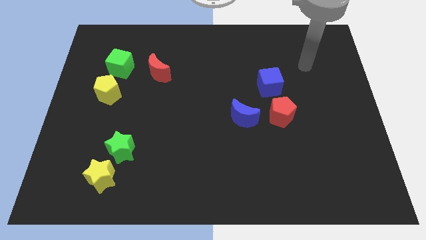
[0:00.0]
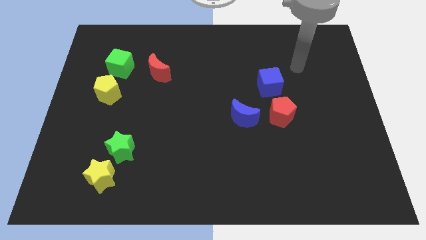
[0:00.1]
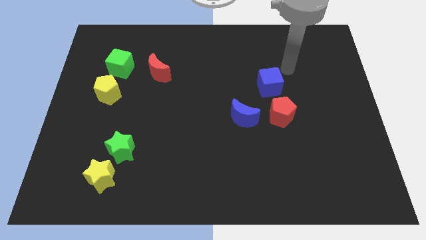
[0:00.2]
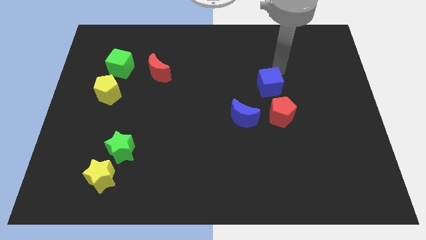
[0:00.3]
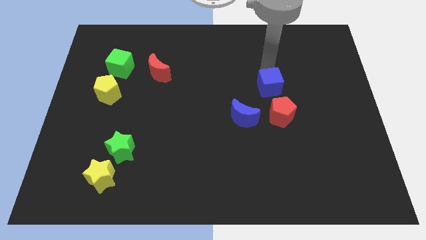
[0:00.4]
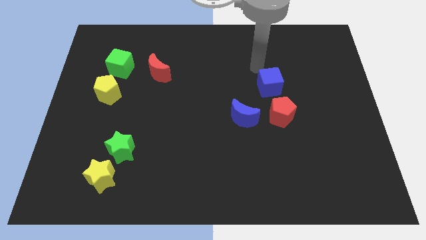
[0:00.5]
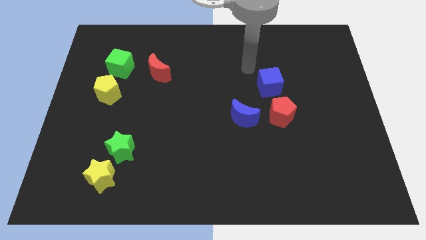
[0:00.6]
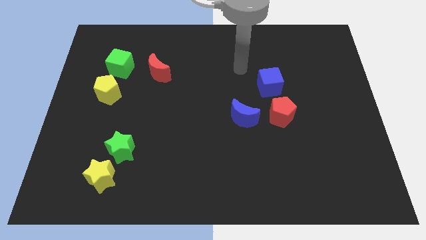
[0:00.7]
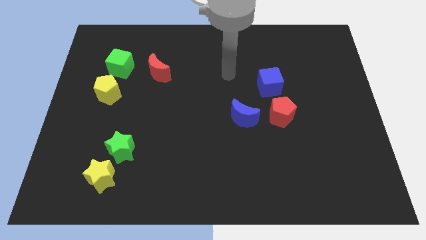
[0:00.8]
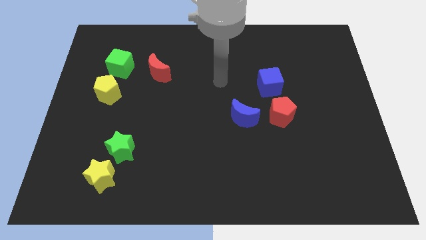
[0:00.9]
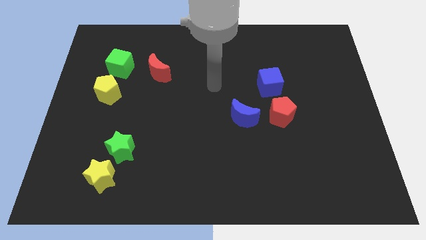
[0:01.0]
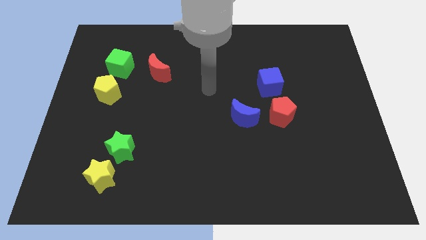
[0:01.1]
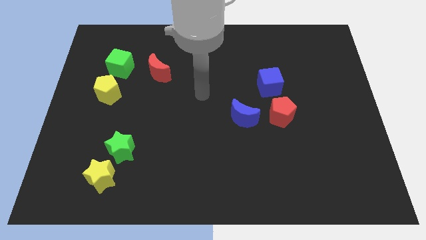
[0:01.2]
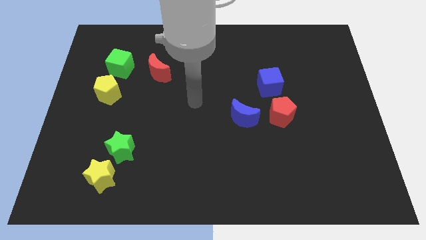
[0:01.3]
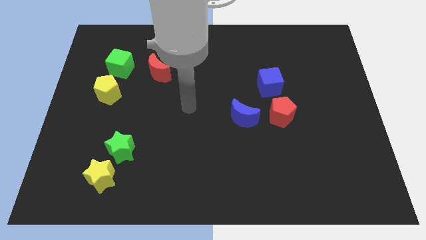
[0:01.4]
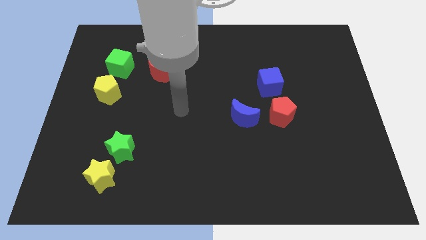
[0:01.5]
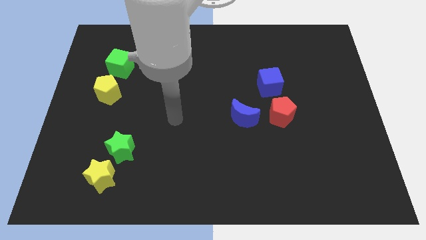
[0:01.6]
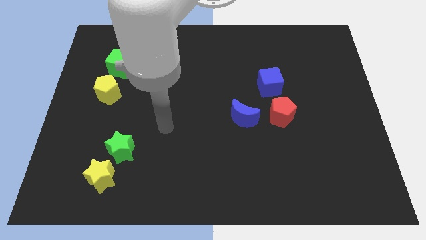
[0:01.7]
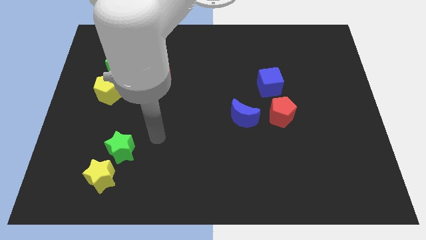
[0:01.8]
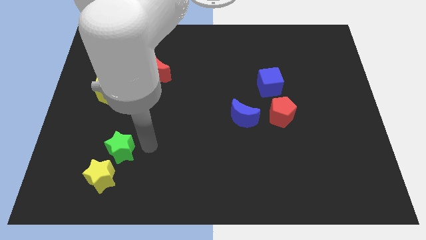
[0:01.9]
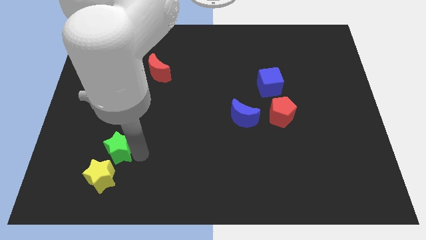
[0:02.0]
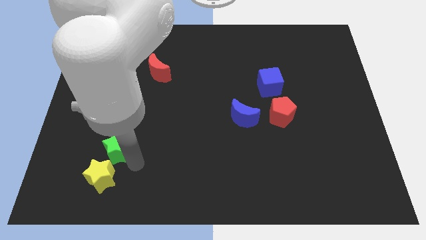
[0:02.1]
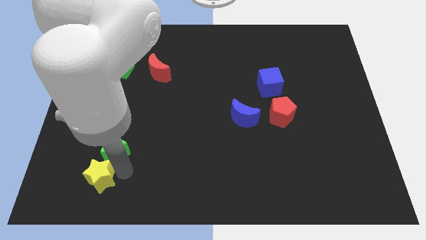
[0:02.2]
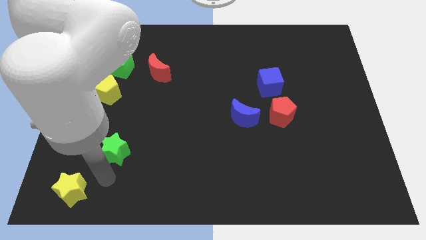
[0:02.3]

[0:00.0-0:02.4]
separate the green star from the yellow star

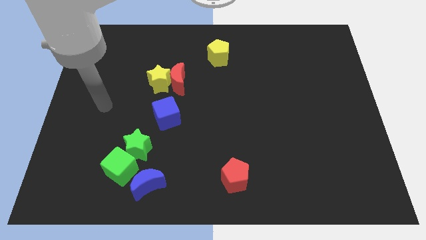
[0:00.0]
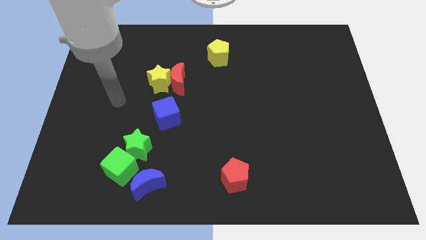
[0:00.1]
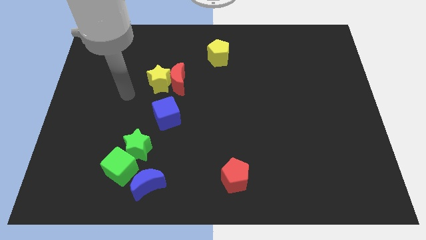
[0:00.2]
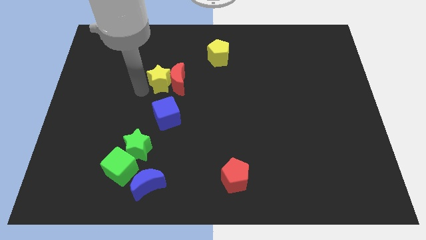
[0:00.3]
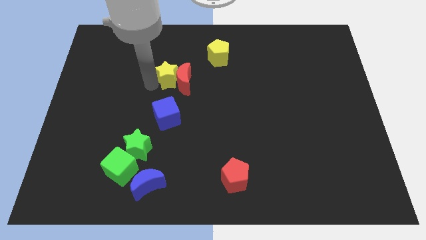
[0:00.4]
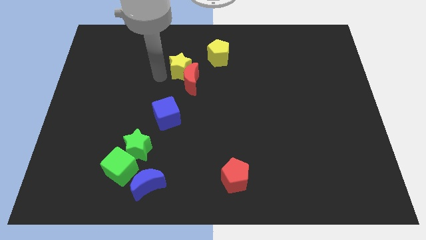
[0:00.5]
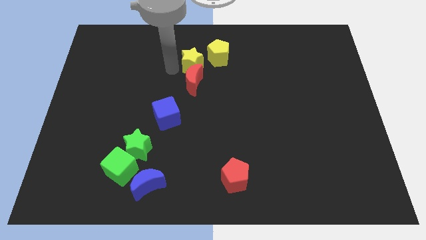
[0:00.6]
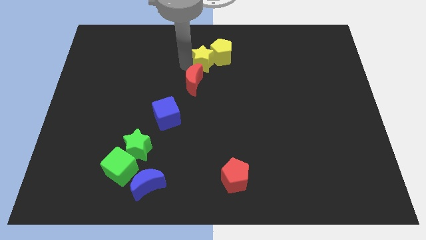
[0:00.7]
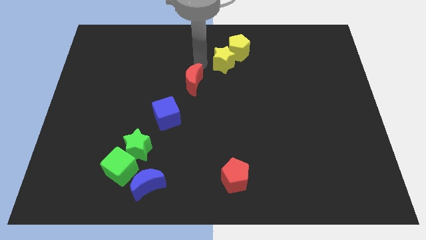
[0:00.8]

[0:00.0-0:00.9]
separate the red moon from the yellow star

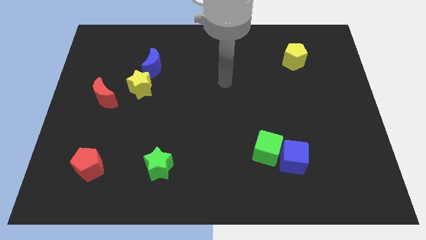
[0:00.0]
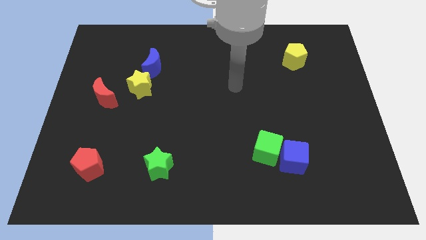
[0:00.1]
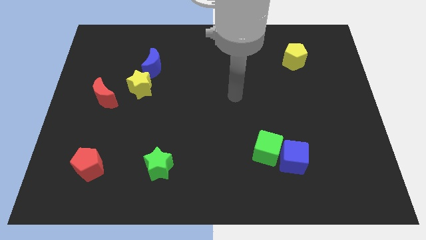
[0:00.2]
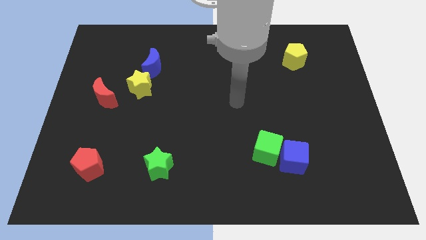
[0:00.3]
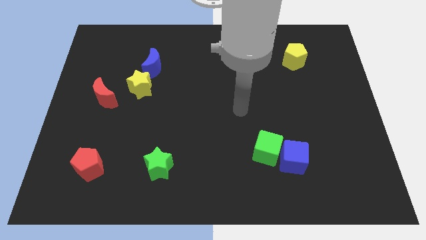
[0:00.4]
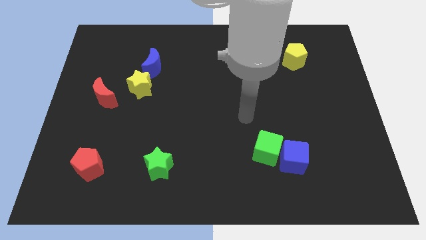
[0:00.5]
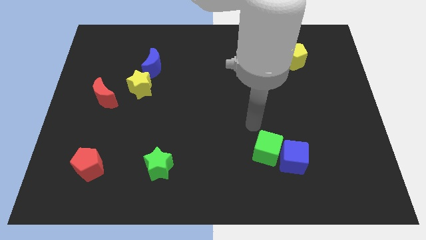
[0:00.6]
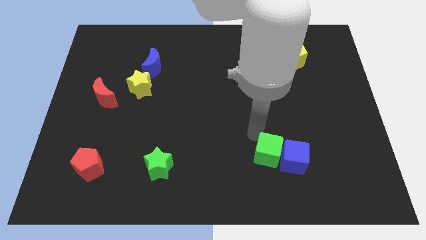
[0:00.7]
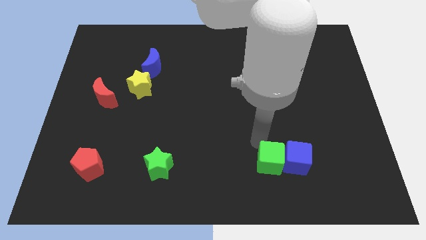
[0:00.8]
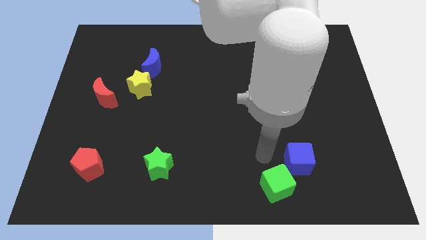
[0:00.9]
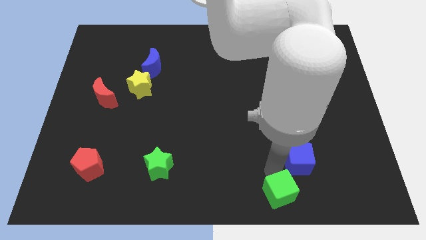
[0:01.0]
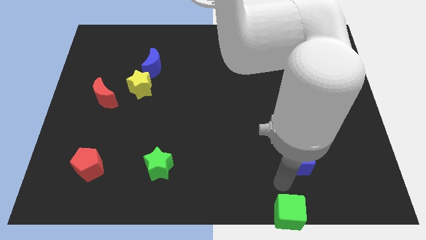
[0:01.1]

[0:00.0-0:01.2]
separate the blue cube from the green cube

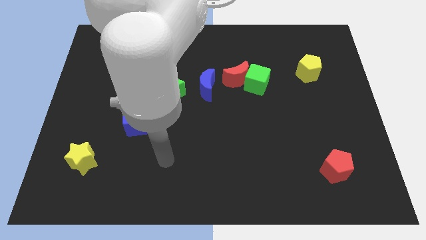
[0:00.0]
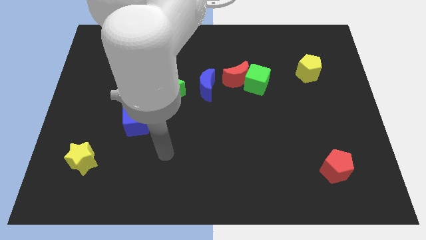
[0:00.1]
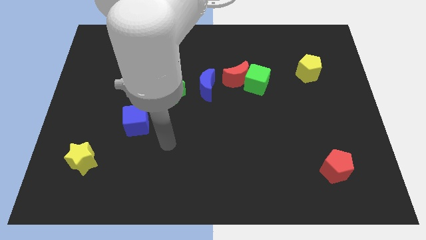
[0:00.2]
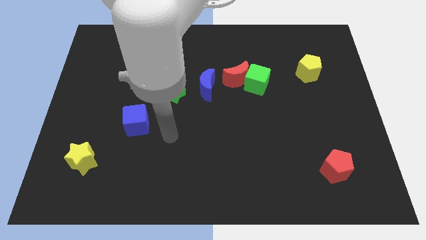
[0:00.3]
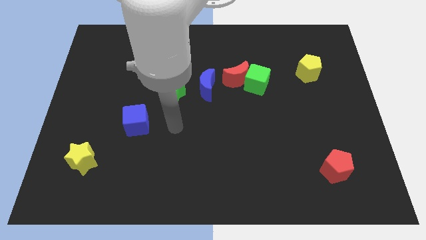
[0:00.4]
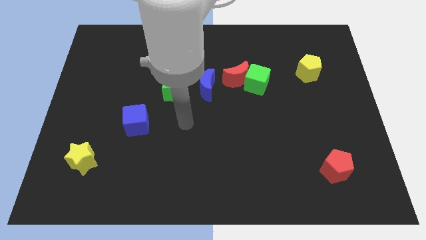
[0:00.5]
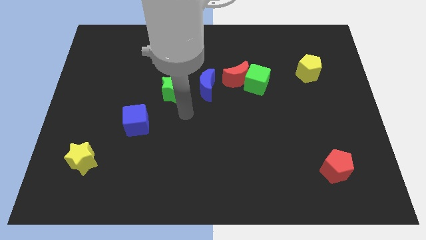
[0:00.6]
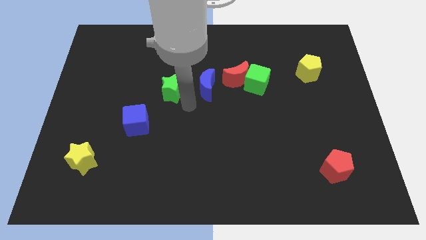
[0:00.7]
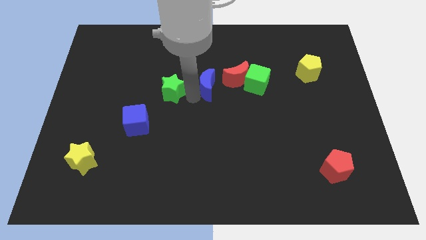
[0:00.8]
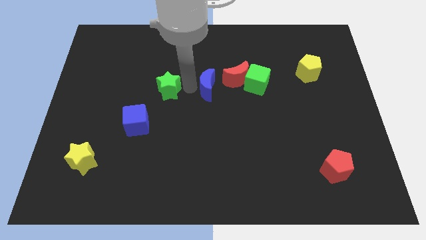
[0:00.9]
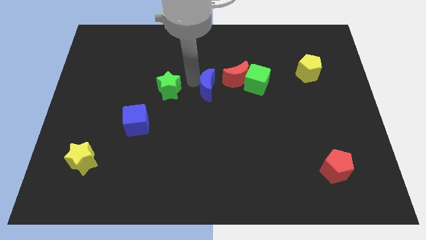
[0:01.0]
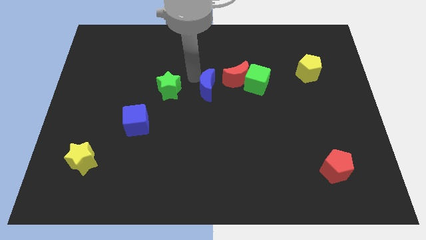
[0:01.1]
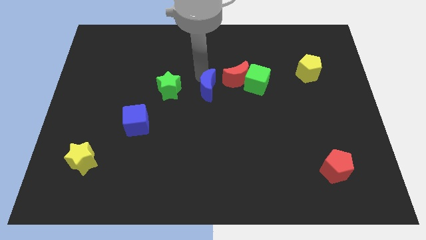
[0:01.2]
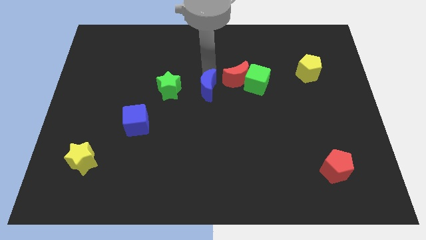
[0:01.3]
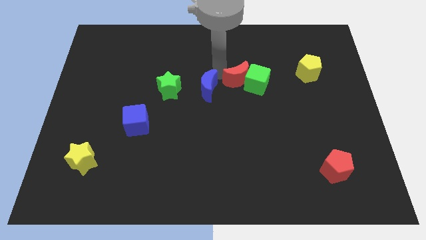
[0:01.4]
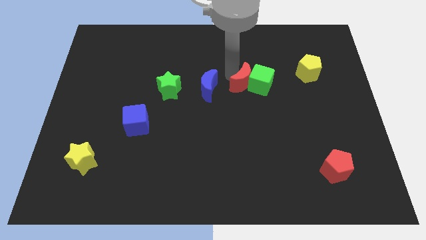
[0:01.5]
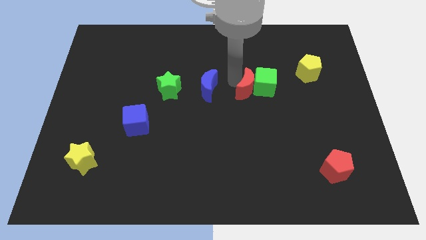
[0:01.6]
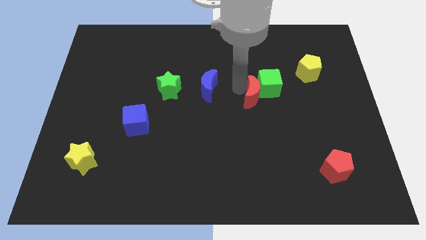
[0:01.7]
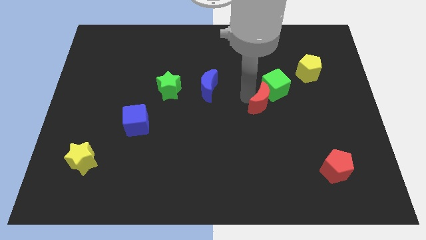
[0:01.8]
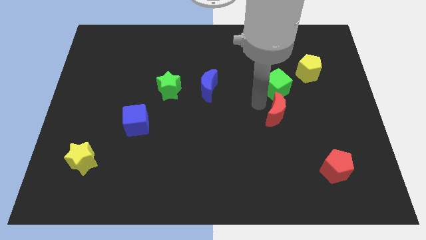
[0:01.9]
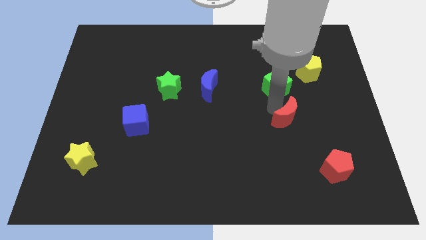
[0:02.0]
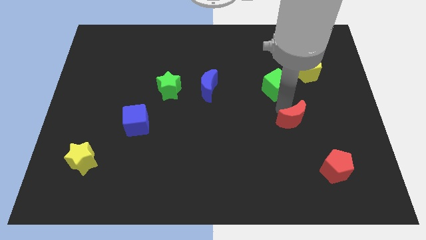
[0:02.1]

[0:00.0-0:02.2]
pull the green cube apart from the red moon

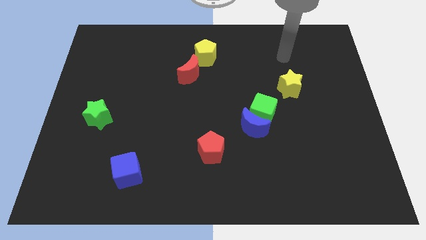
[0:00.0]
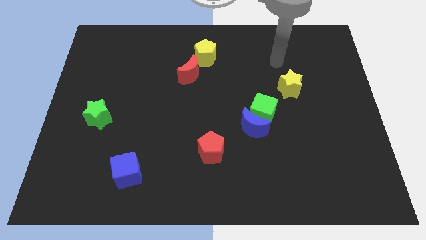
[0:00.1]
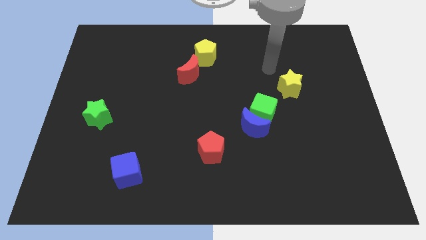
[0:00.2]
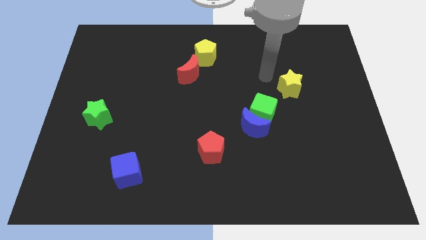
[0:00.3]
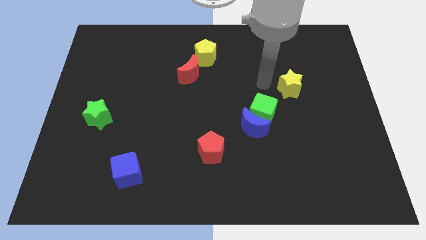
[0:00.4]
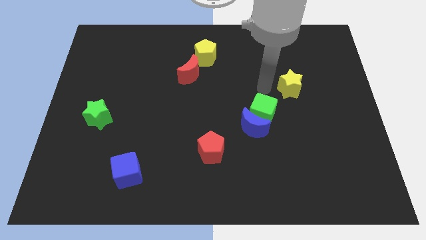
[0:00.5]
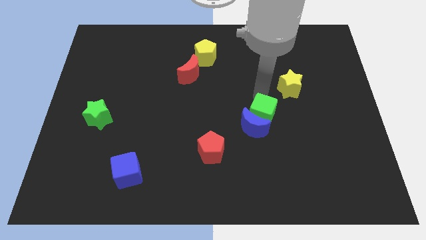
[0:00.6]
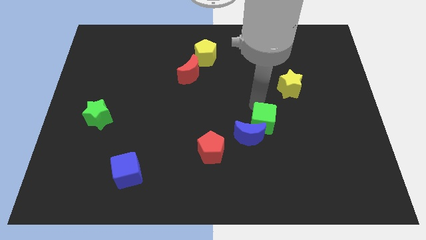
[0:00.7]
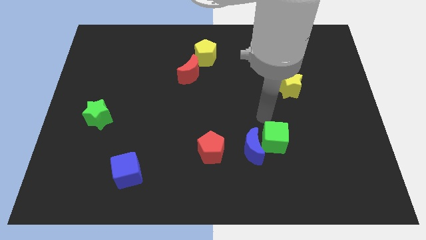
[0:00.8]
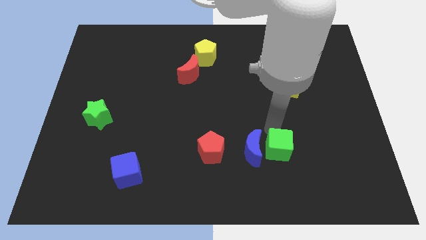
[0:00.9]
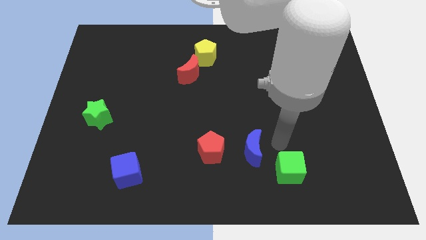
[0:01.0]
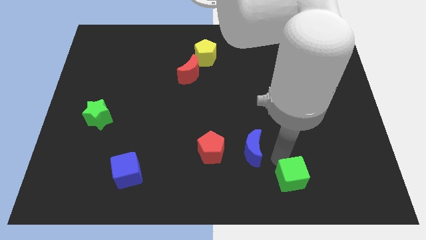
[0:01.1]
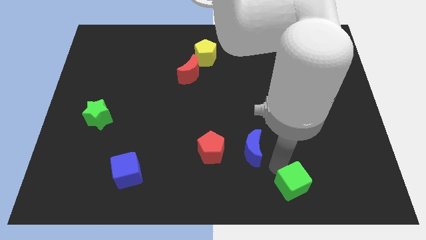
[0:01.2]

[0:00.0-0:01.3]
move the blue moon away from the green cube

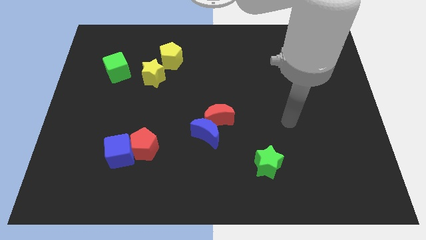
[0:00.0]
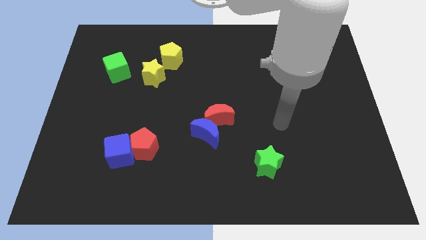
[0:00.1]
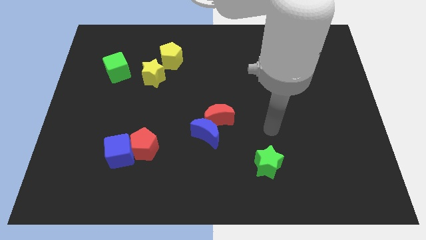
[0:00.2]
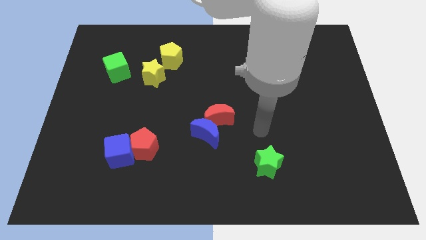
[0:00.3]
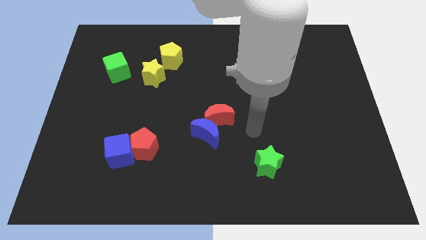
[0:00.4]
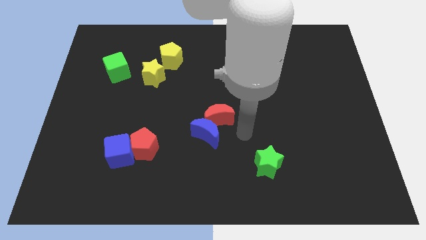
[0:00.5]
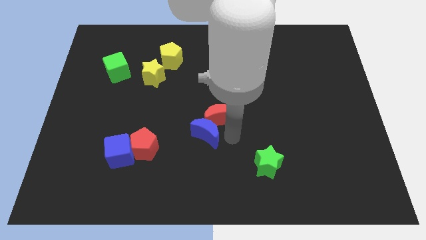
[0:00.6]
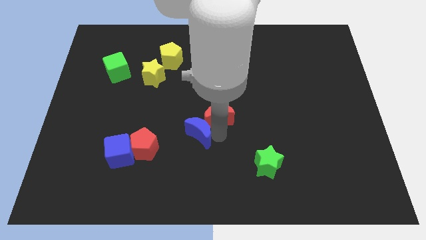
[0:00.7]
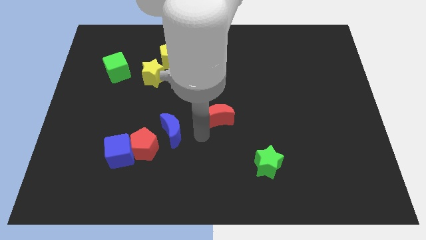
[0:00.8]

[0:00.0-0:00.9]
move the red moon away from the blue moon

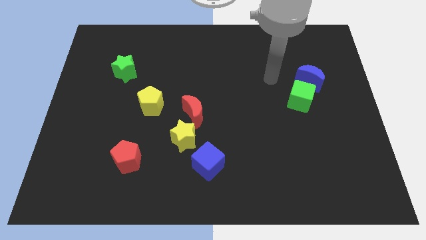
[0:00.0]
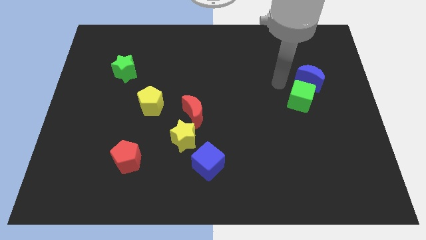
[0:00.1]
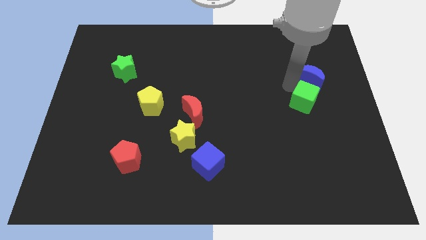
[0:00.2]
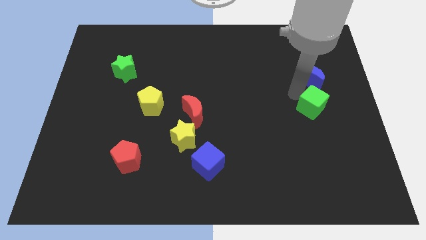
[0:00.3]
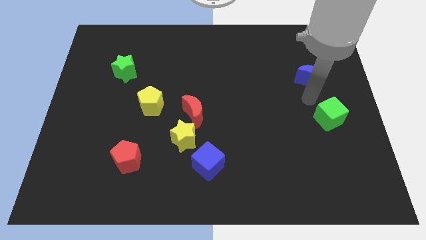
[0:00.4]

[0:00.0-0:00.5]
separate the blue moon from the green cube
